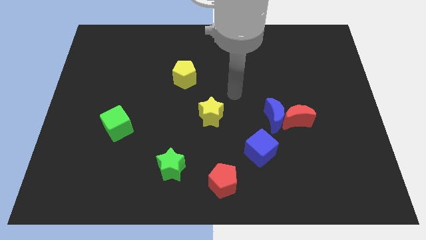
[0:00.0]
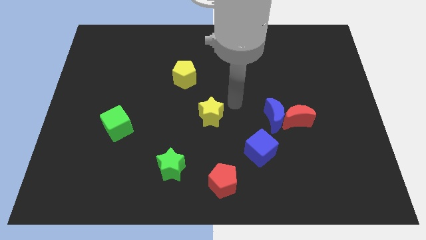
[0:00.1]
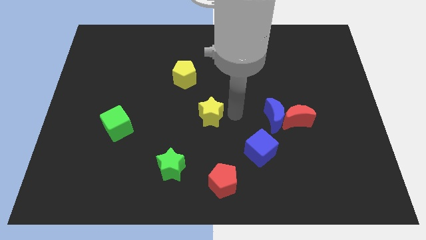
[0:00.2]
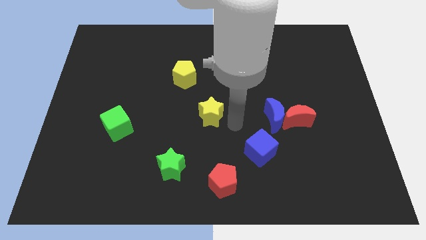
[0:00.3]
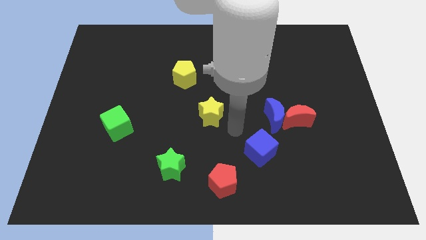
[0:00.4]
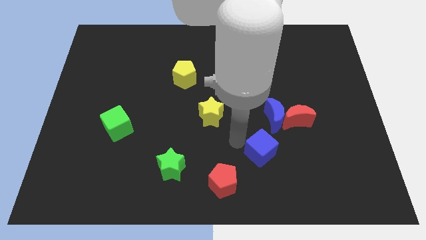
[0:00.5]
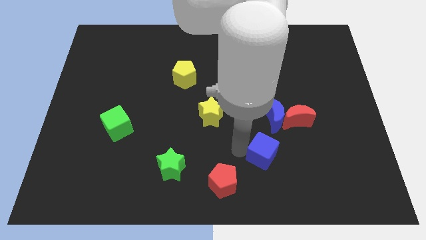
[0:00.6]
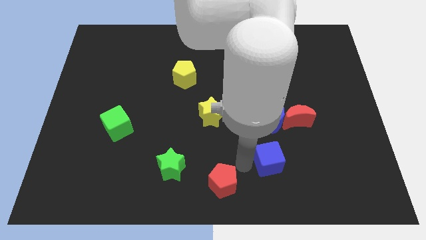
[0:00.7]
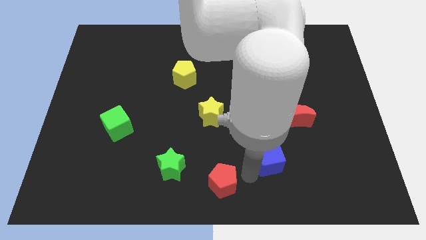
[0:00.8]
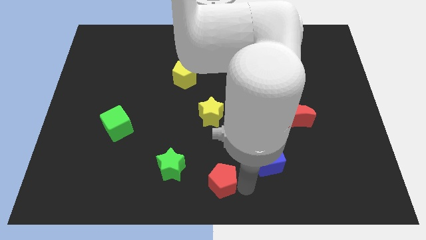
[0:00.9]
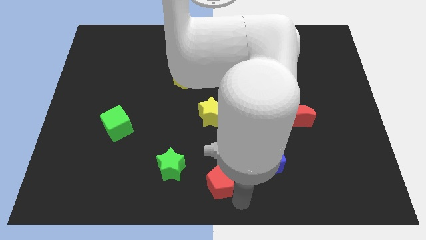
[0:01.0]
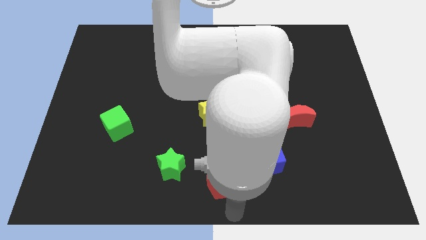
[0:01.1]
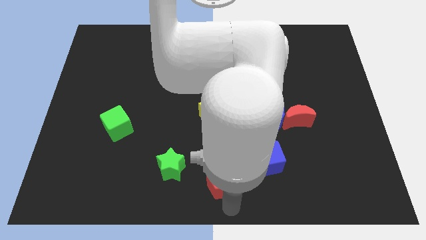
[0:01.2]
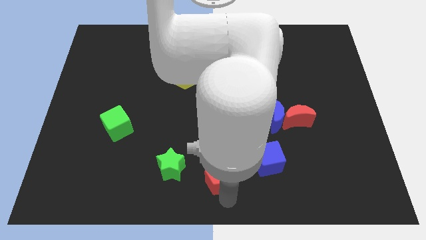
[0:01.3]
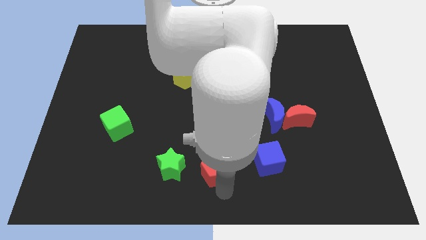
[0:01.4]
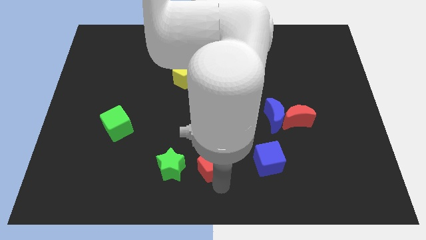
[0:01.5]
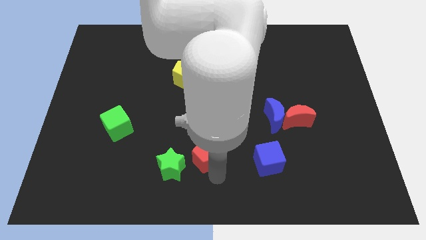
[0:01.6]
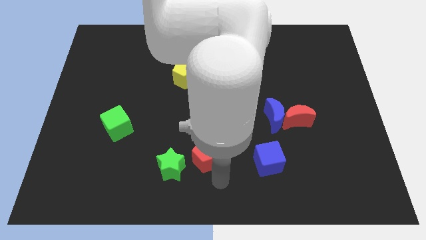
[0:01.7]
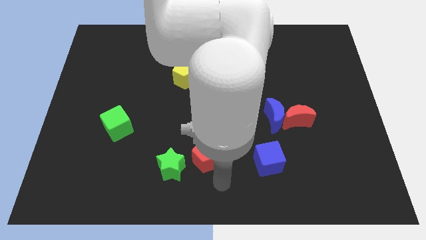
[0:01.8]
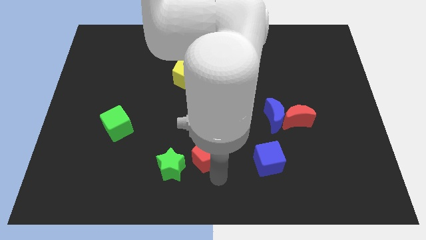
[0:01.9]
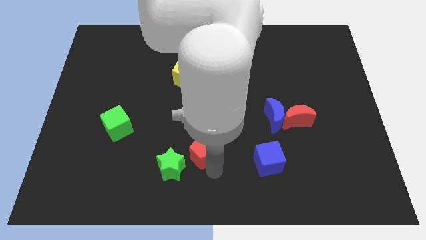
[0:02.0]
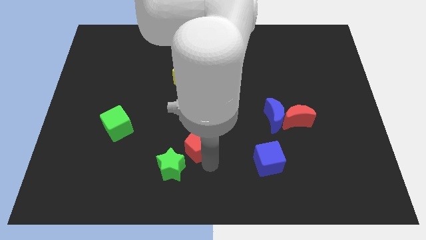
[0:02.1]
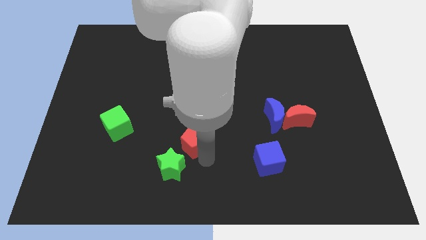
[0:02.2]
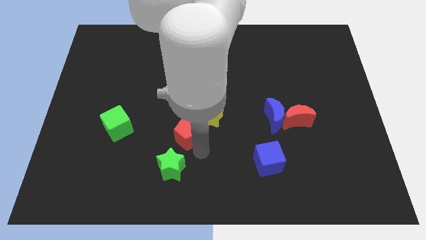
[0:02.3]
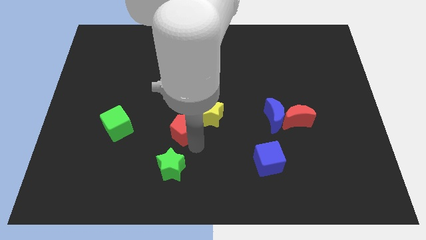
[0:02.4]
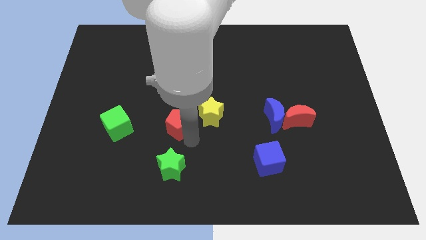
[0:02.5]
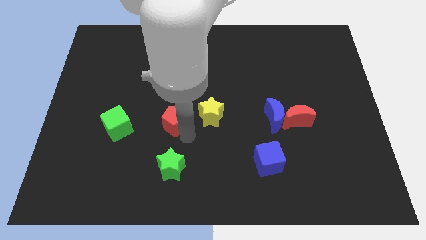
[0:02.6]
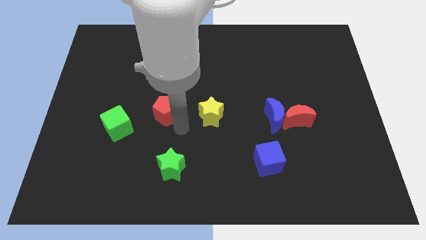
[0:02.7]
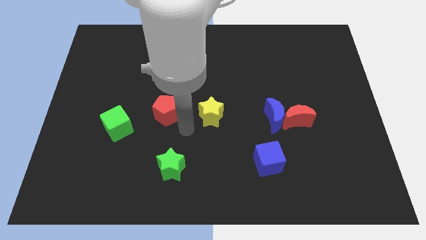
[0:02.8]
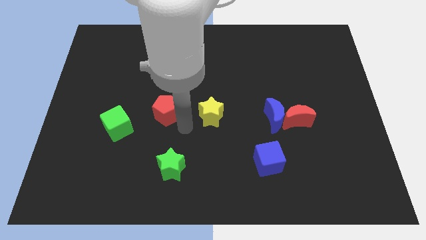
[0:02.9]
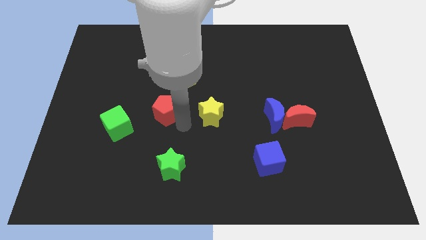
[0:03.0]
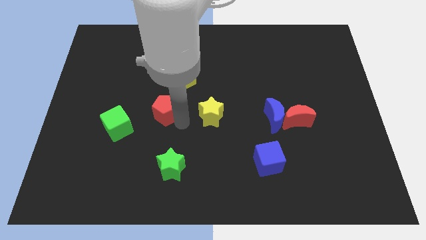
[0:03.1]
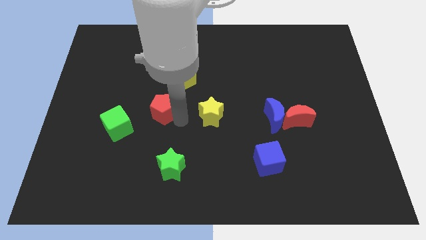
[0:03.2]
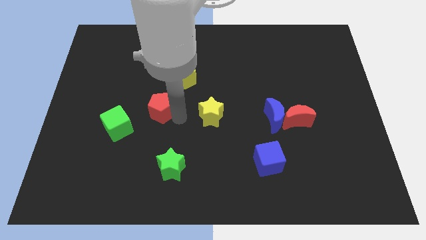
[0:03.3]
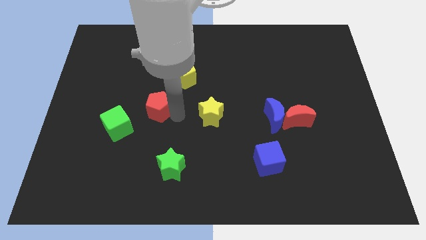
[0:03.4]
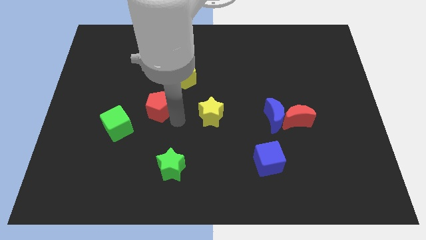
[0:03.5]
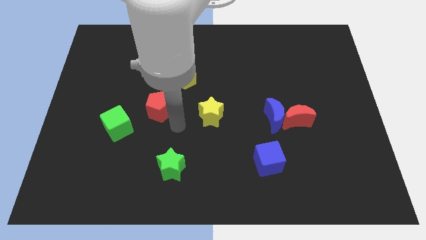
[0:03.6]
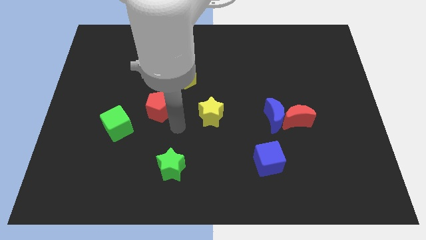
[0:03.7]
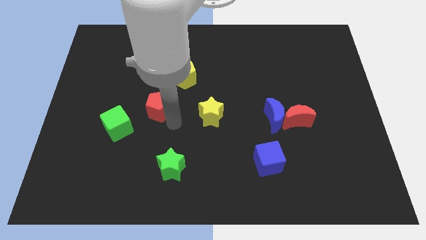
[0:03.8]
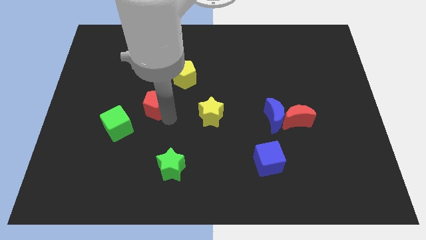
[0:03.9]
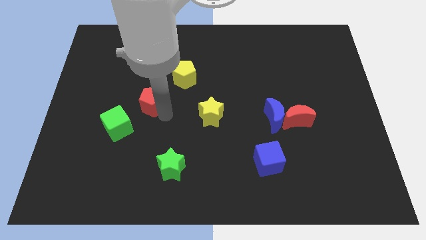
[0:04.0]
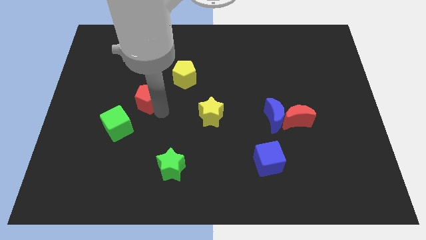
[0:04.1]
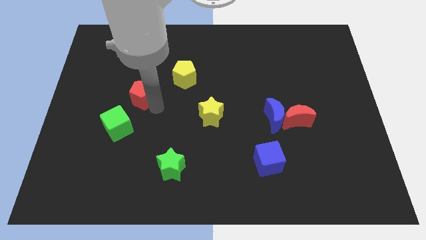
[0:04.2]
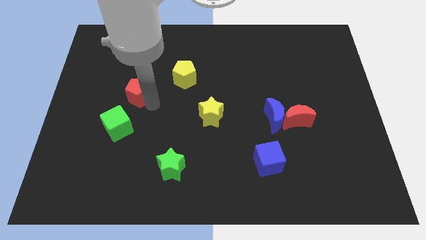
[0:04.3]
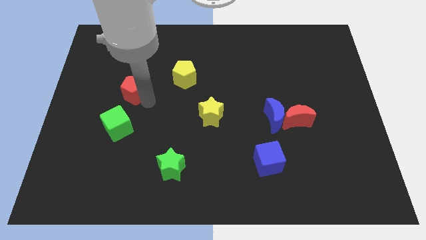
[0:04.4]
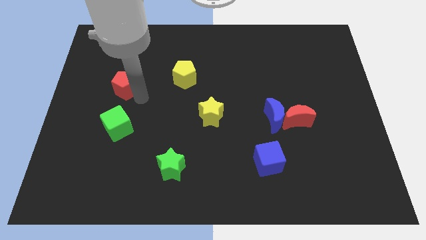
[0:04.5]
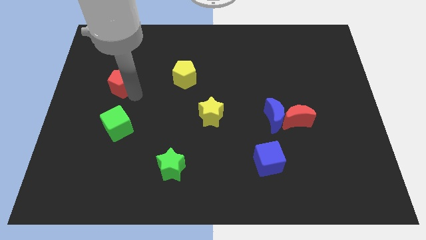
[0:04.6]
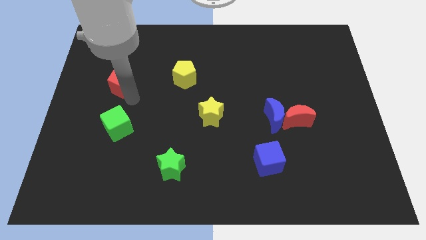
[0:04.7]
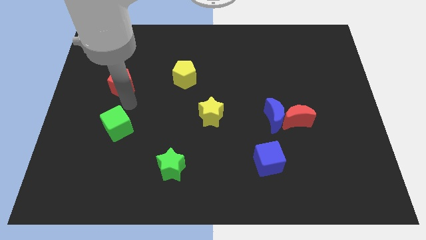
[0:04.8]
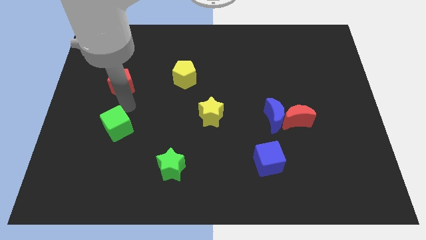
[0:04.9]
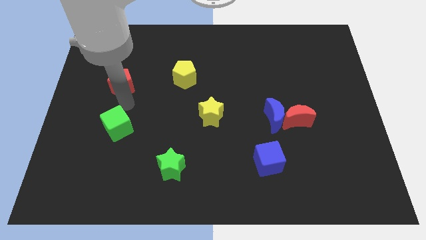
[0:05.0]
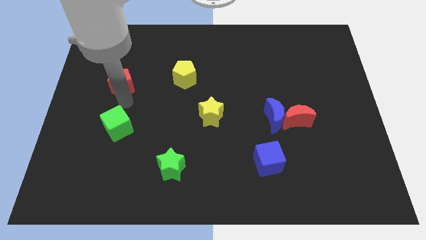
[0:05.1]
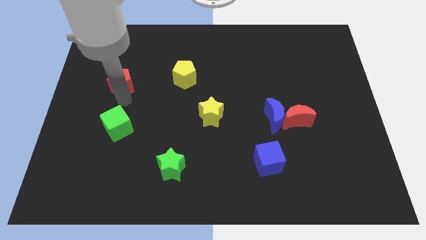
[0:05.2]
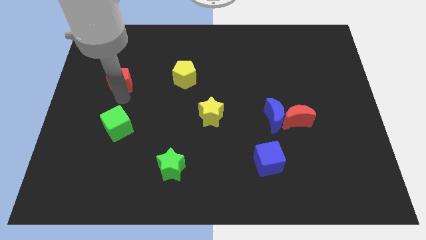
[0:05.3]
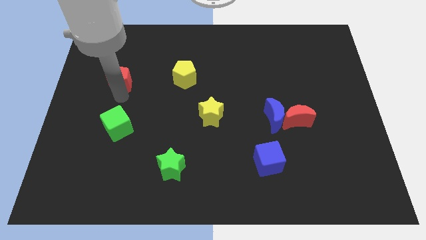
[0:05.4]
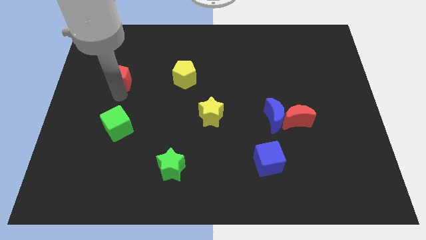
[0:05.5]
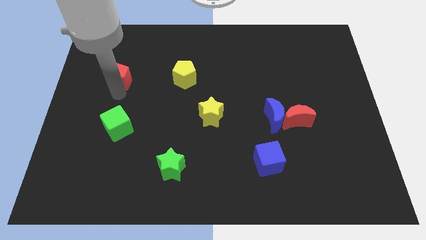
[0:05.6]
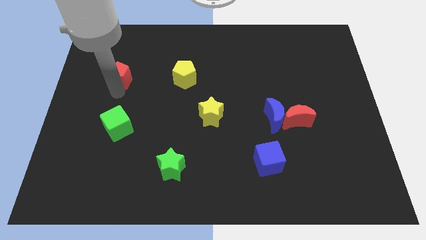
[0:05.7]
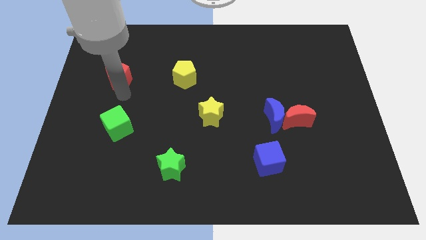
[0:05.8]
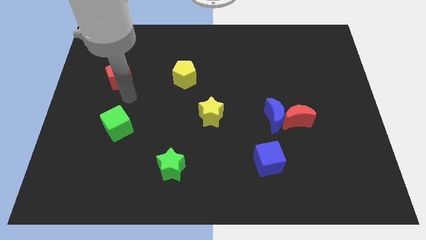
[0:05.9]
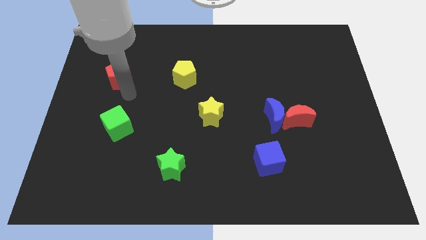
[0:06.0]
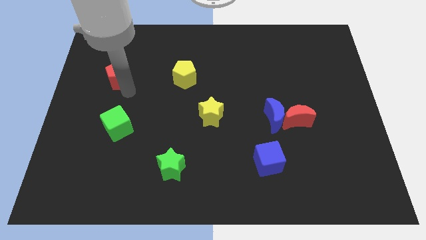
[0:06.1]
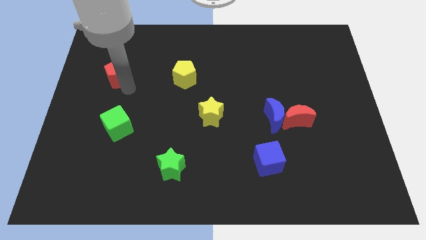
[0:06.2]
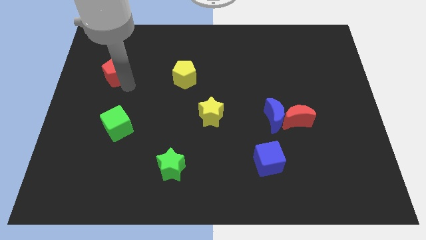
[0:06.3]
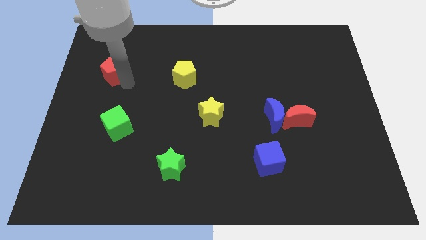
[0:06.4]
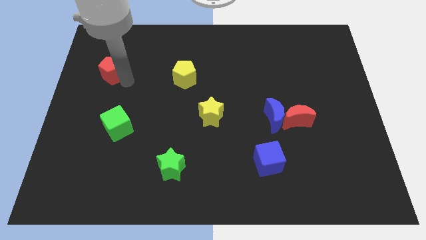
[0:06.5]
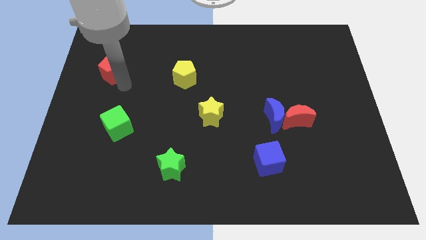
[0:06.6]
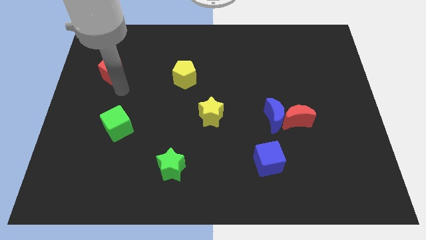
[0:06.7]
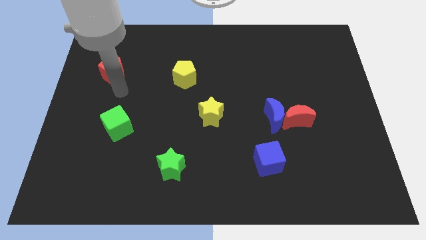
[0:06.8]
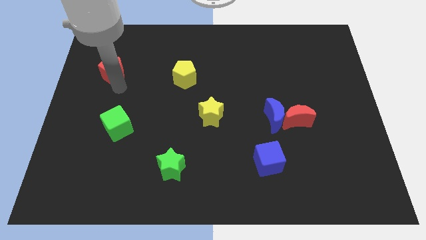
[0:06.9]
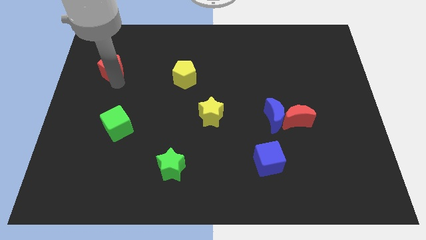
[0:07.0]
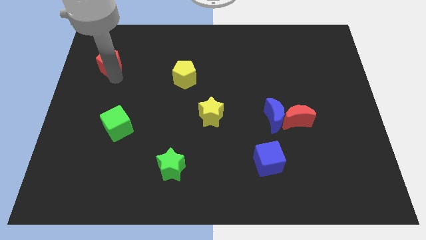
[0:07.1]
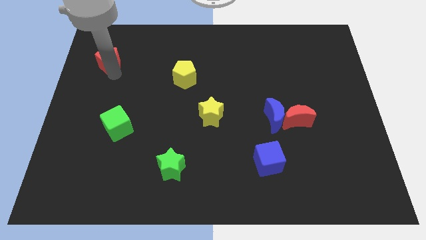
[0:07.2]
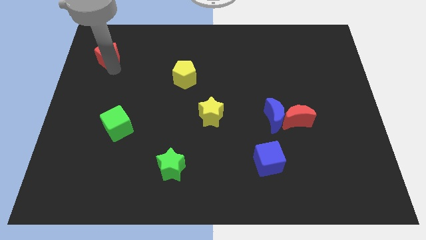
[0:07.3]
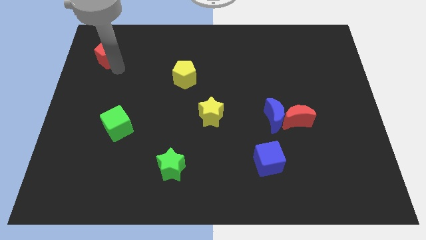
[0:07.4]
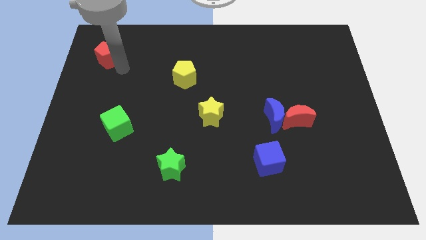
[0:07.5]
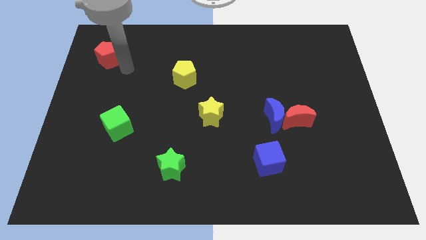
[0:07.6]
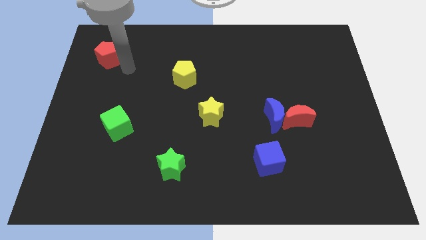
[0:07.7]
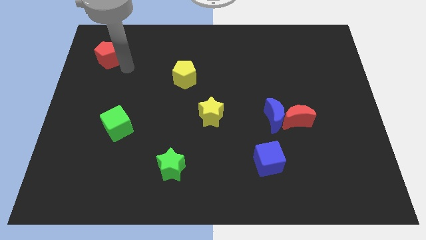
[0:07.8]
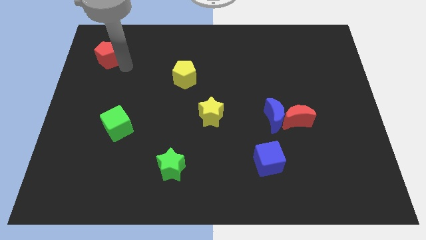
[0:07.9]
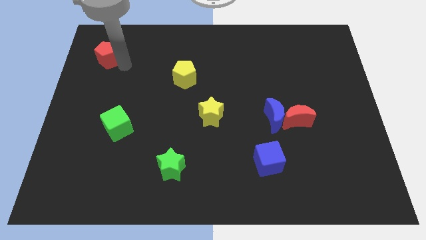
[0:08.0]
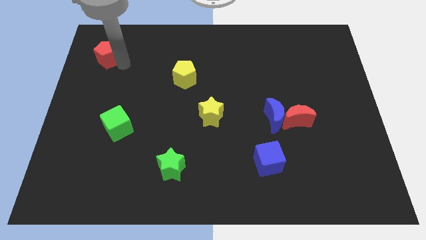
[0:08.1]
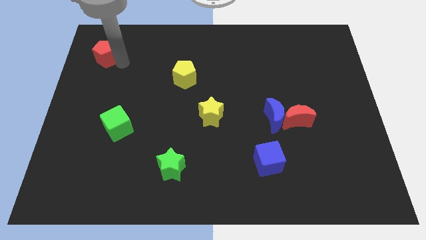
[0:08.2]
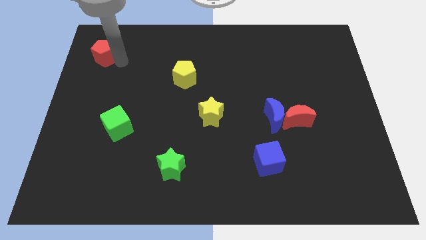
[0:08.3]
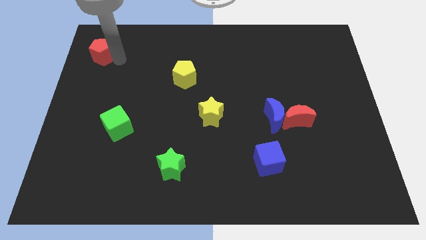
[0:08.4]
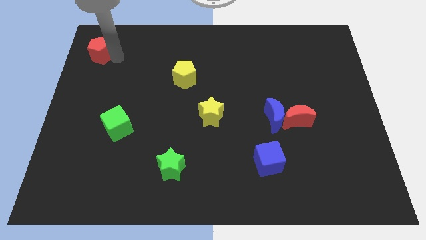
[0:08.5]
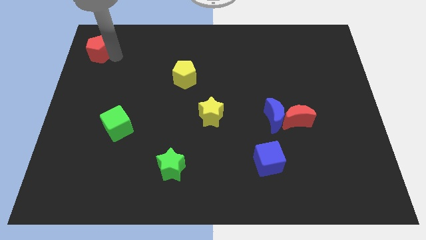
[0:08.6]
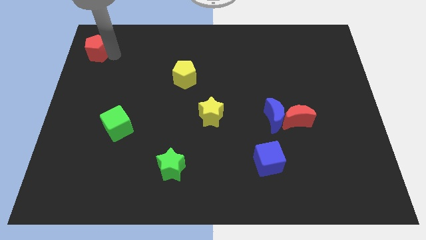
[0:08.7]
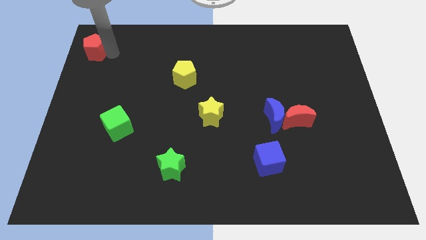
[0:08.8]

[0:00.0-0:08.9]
push the red pentagon to the top left
